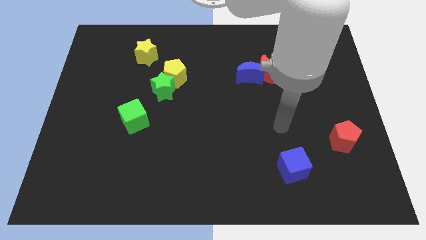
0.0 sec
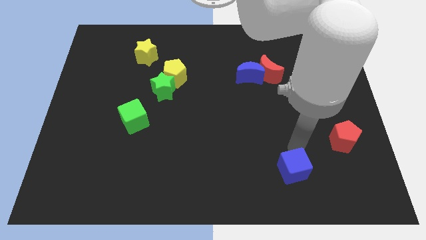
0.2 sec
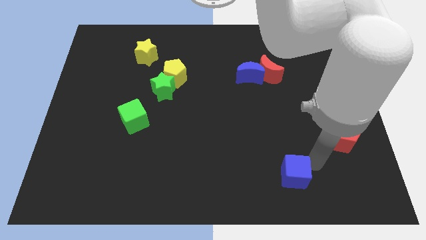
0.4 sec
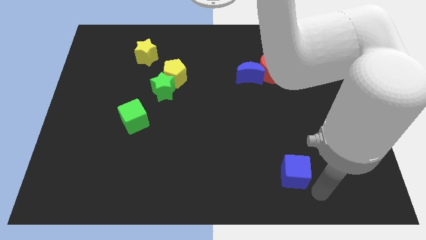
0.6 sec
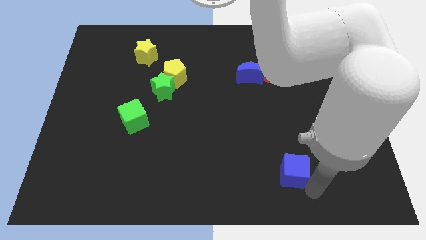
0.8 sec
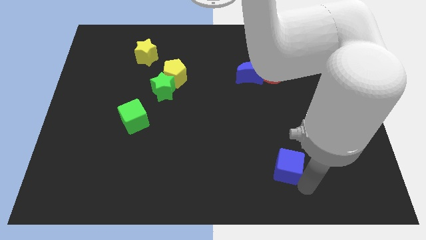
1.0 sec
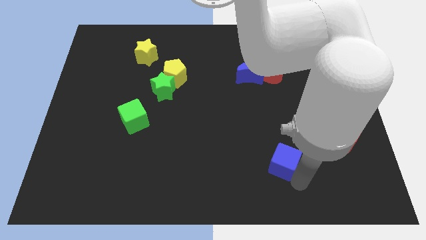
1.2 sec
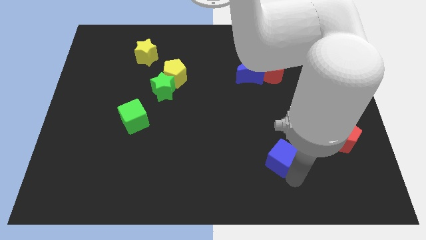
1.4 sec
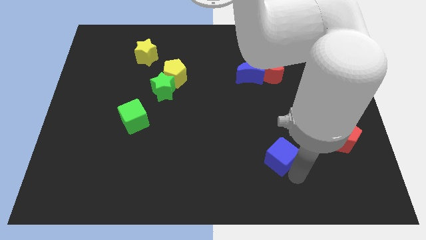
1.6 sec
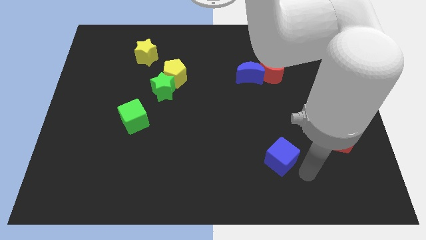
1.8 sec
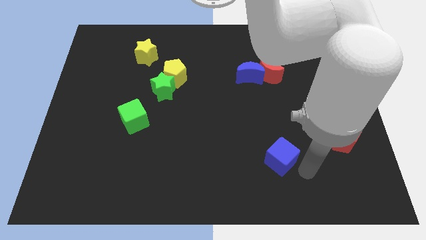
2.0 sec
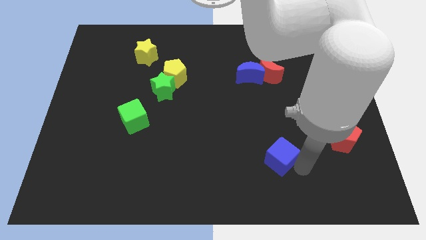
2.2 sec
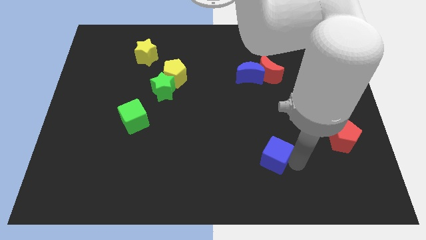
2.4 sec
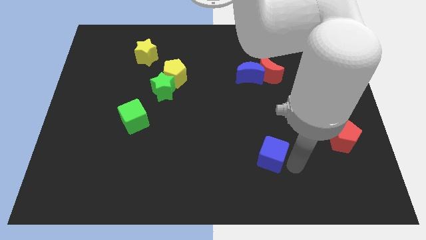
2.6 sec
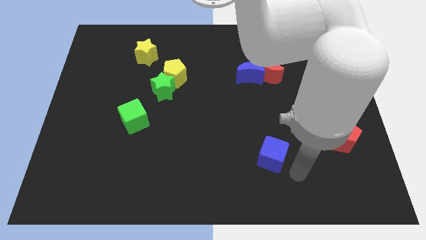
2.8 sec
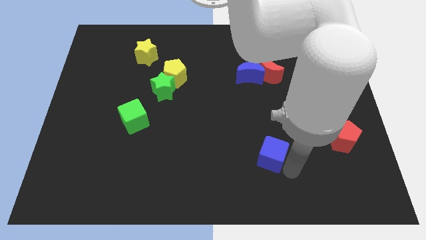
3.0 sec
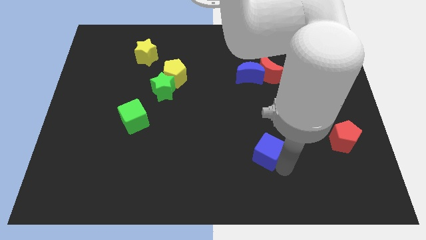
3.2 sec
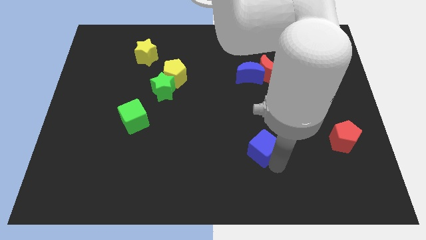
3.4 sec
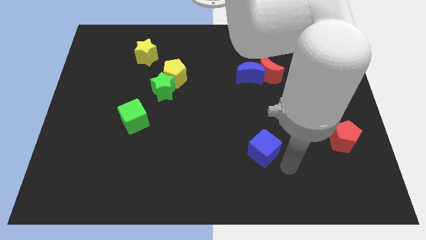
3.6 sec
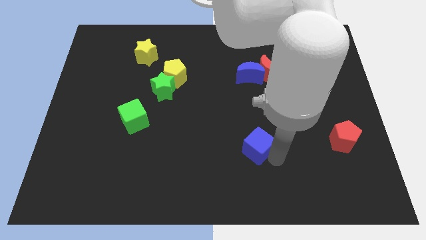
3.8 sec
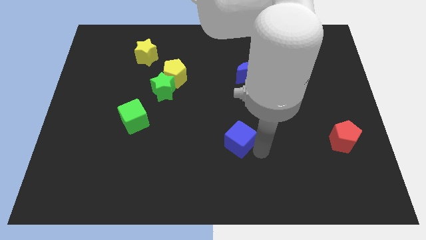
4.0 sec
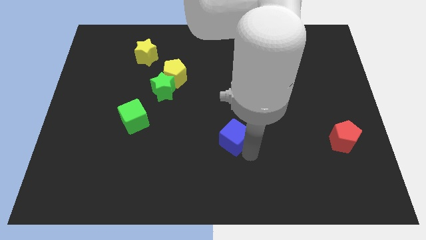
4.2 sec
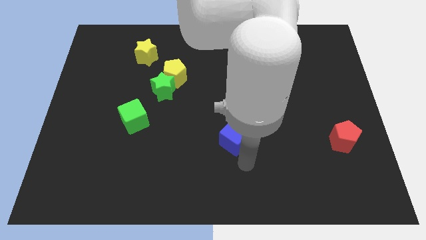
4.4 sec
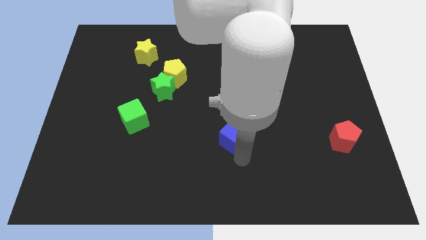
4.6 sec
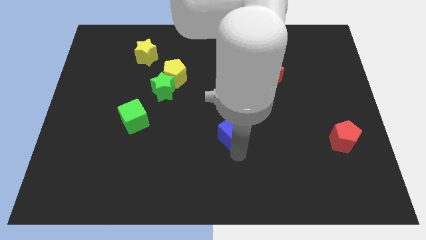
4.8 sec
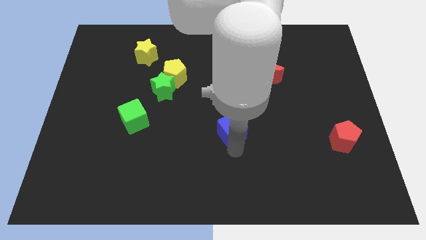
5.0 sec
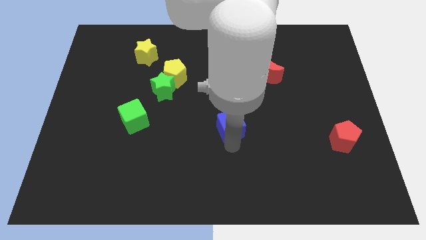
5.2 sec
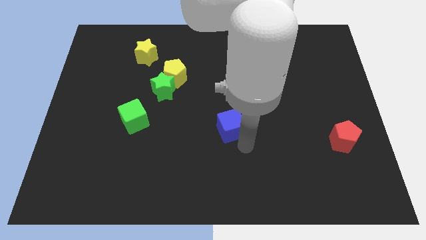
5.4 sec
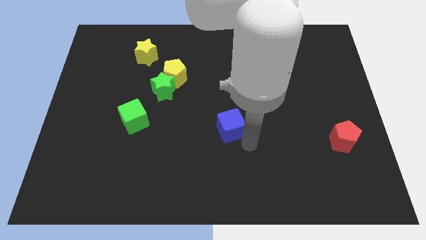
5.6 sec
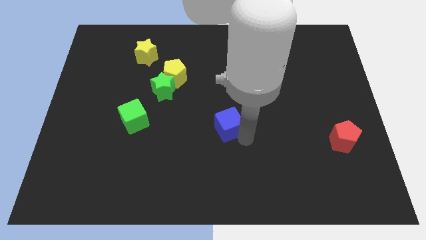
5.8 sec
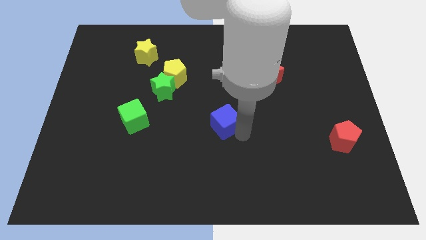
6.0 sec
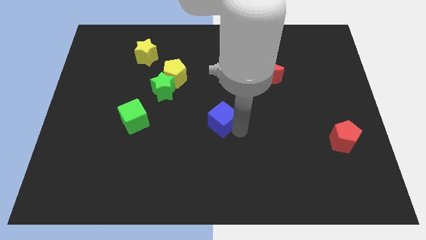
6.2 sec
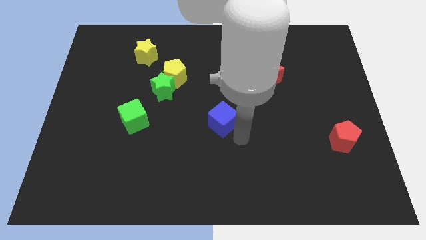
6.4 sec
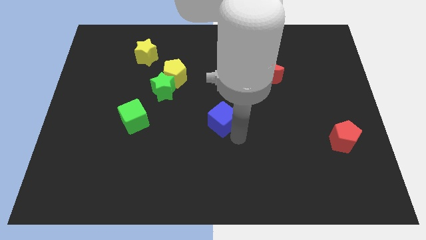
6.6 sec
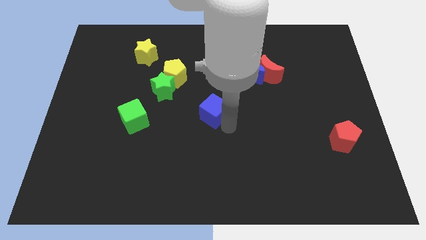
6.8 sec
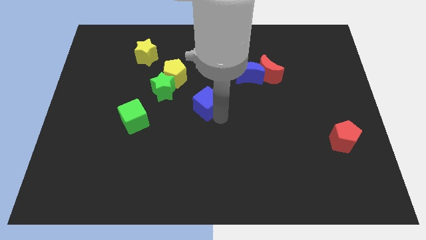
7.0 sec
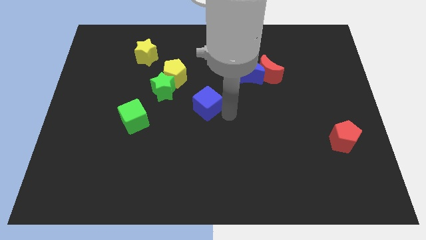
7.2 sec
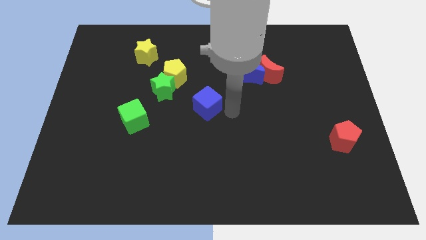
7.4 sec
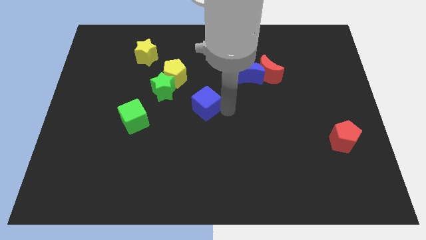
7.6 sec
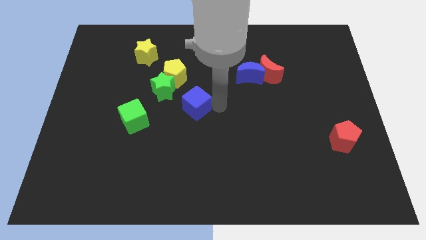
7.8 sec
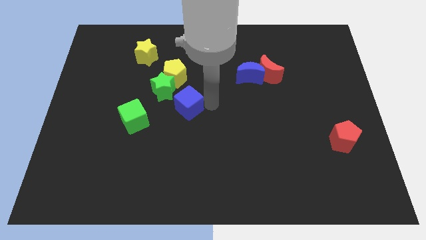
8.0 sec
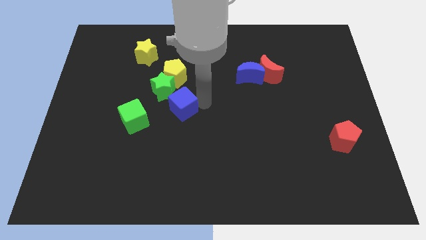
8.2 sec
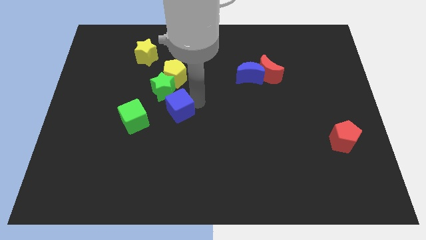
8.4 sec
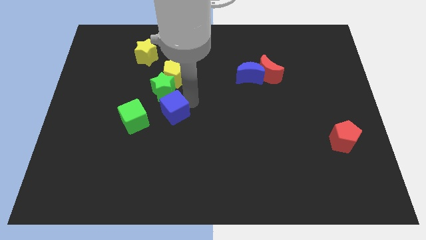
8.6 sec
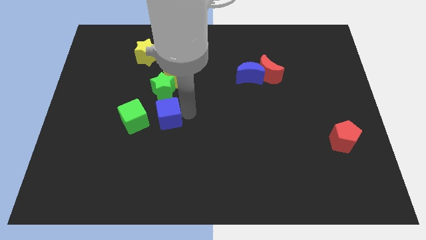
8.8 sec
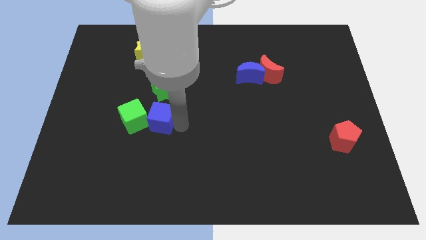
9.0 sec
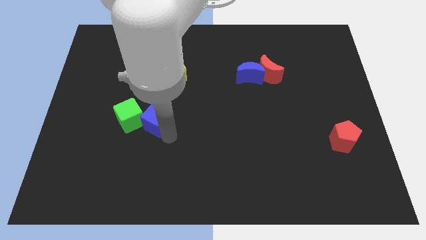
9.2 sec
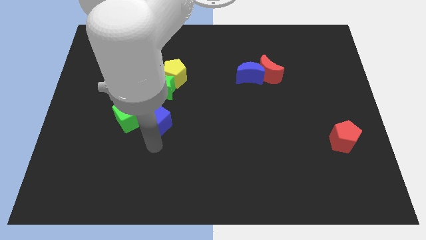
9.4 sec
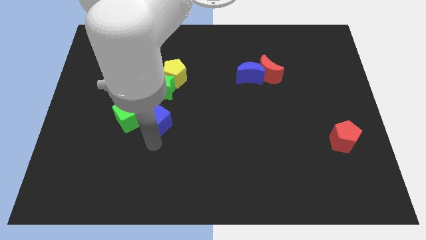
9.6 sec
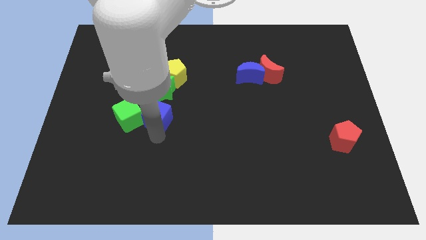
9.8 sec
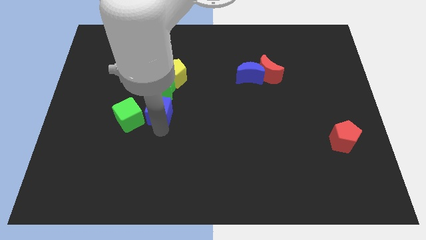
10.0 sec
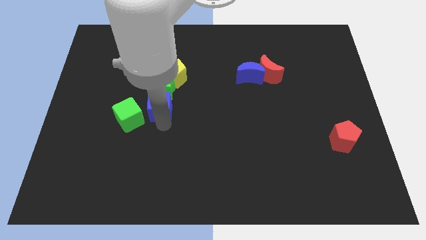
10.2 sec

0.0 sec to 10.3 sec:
push the blue cube towards the green star

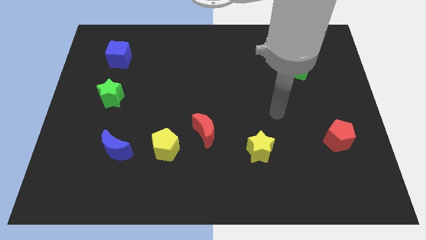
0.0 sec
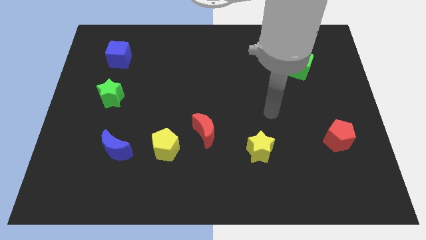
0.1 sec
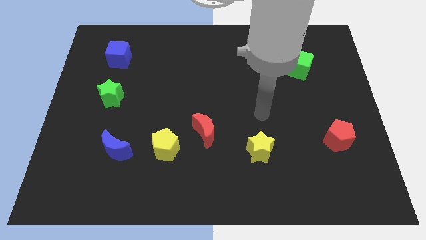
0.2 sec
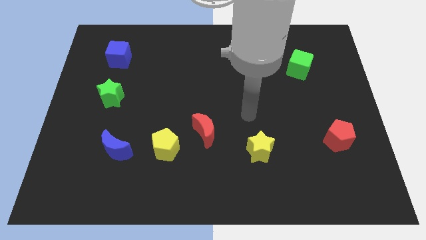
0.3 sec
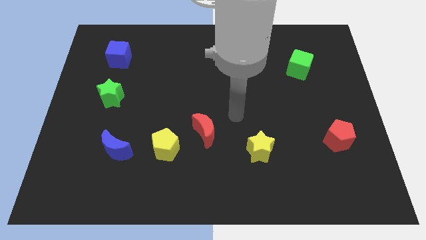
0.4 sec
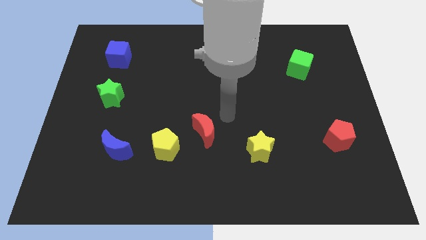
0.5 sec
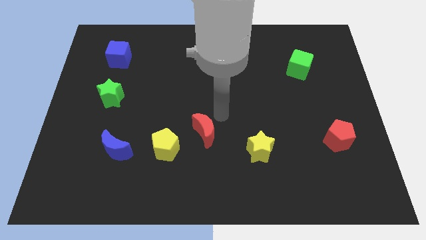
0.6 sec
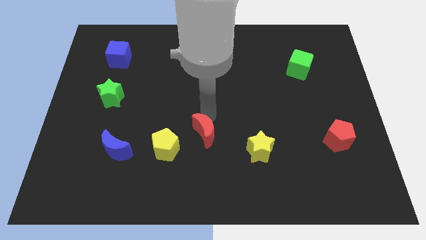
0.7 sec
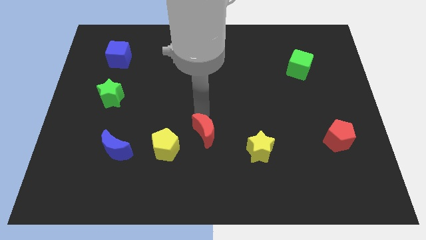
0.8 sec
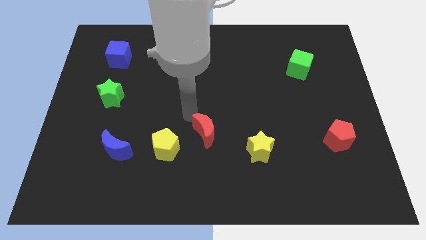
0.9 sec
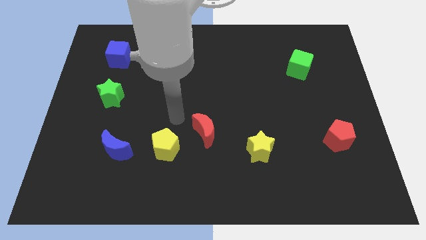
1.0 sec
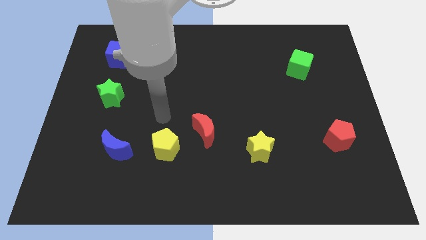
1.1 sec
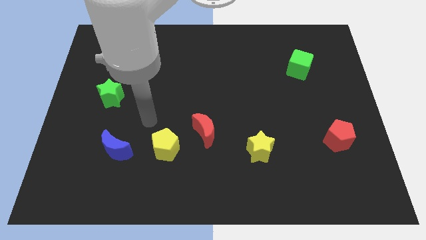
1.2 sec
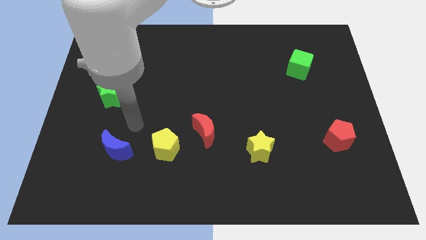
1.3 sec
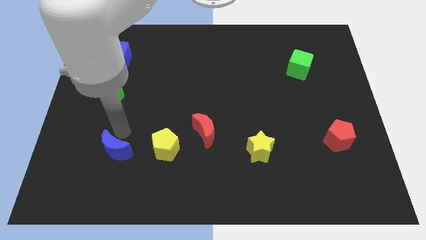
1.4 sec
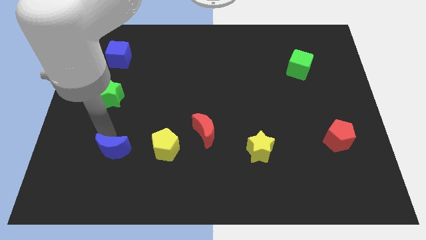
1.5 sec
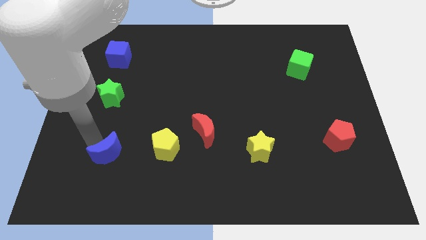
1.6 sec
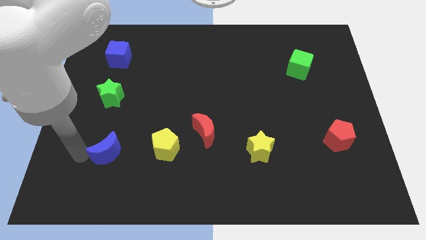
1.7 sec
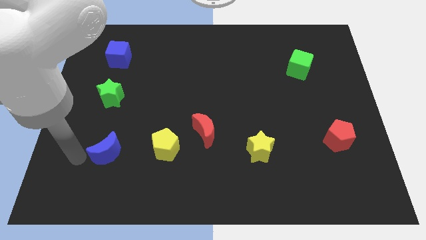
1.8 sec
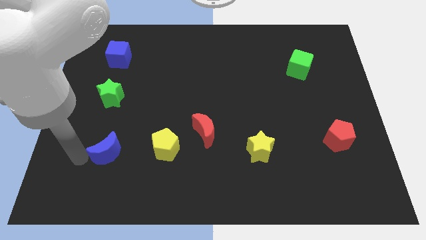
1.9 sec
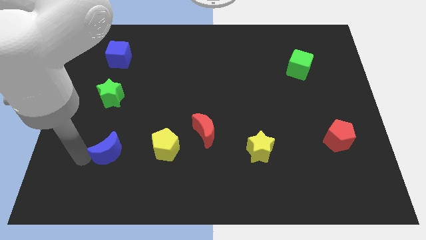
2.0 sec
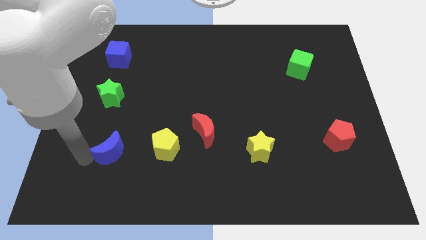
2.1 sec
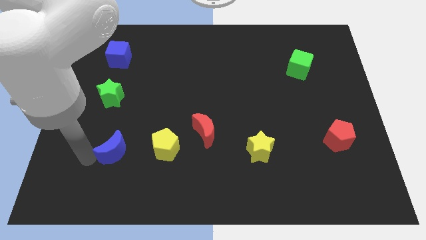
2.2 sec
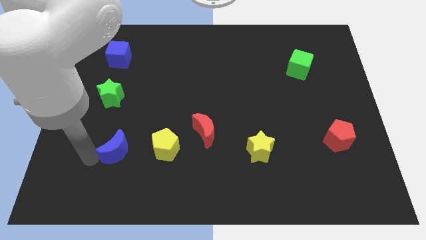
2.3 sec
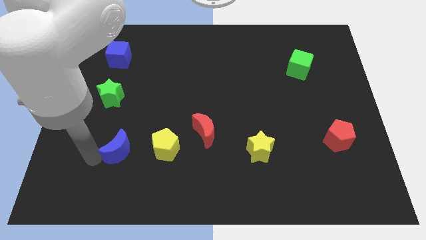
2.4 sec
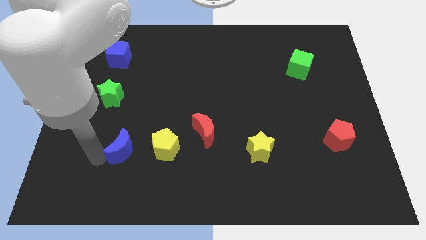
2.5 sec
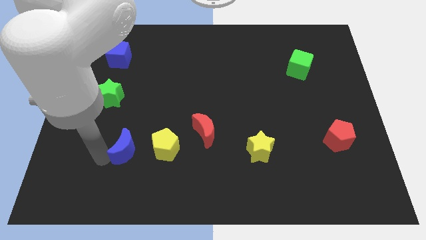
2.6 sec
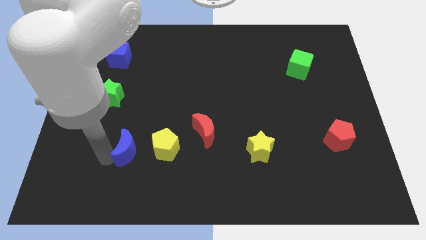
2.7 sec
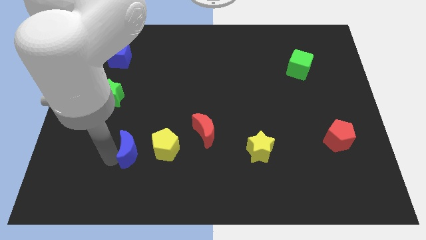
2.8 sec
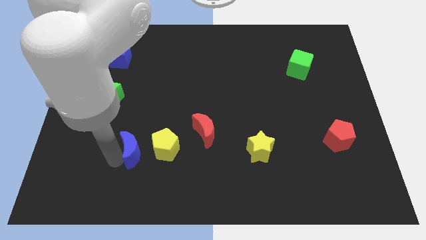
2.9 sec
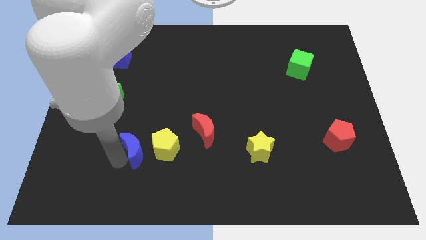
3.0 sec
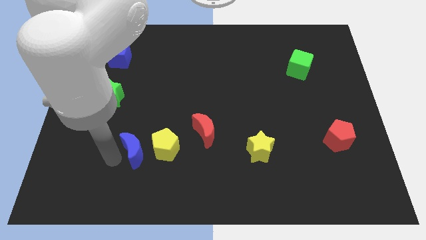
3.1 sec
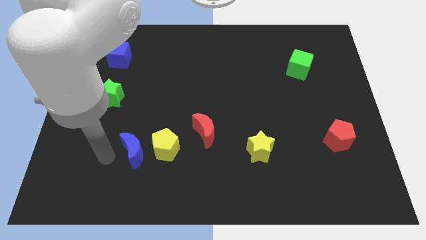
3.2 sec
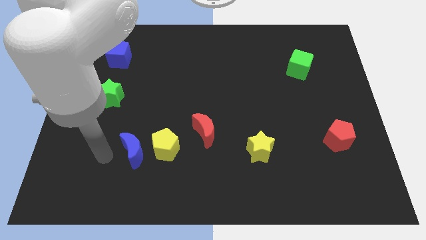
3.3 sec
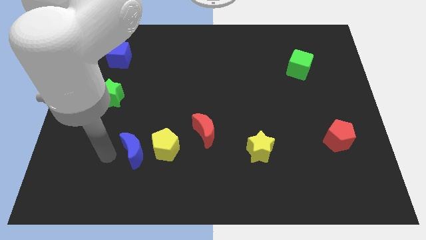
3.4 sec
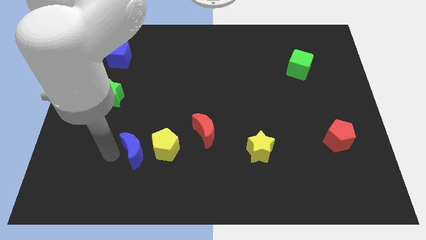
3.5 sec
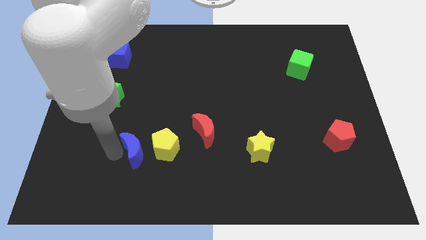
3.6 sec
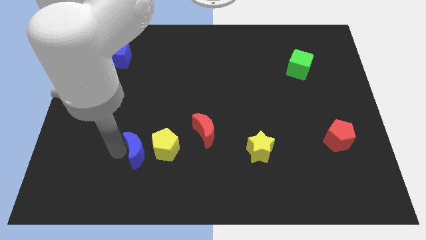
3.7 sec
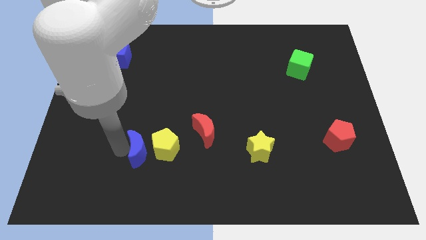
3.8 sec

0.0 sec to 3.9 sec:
slide the blue moon towards the yellow pentagon
